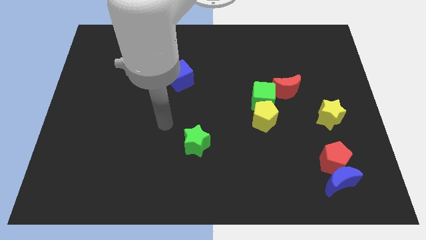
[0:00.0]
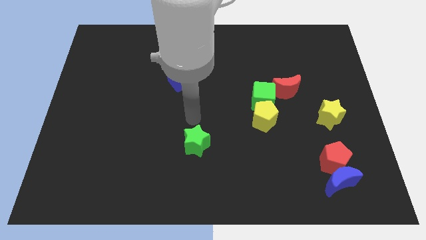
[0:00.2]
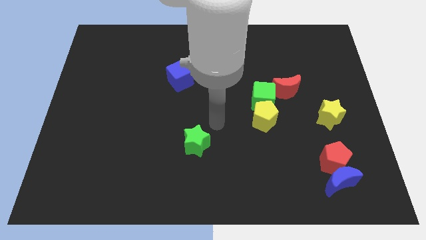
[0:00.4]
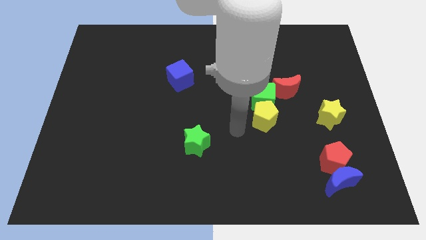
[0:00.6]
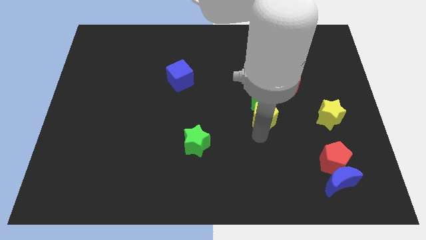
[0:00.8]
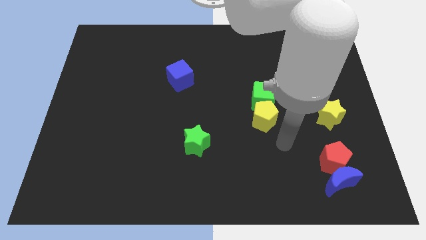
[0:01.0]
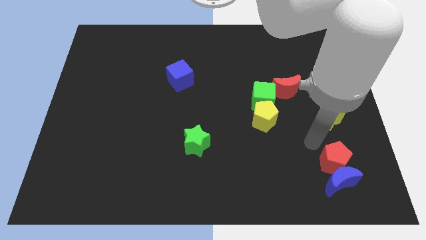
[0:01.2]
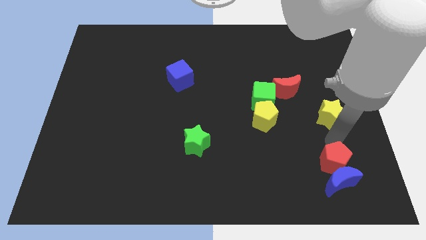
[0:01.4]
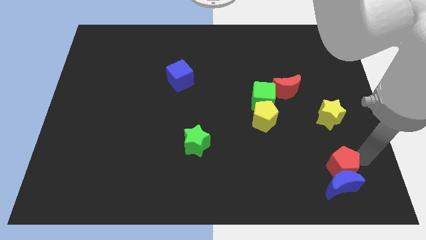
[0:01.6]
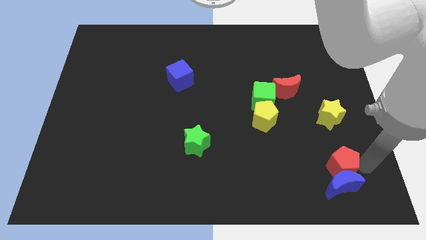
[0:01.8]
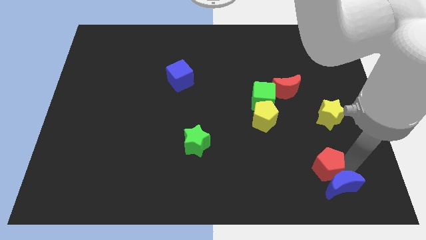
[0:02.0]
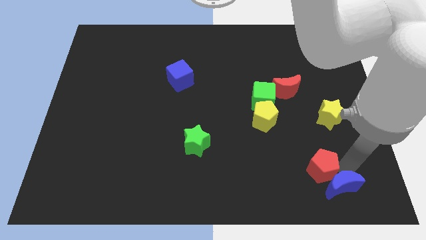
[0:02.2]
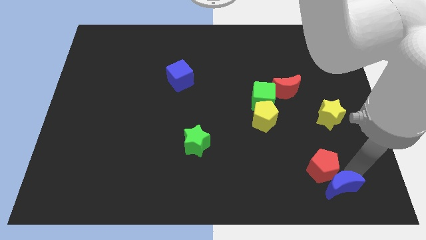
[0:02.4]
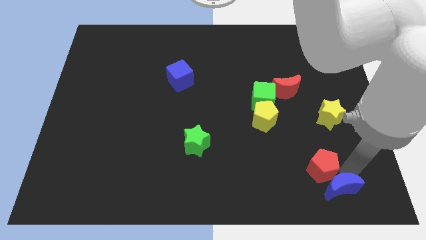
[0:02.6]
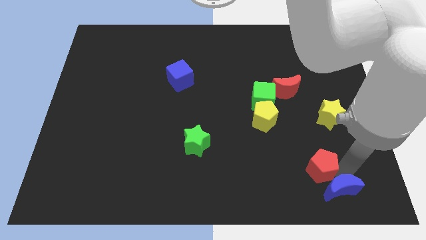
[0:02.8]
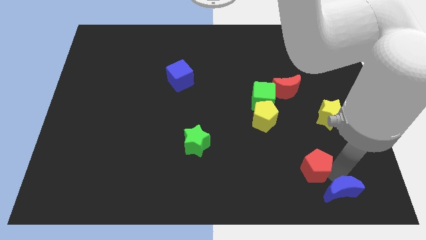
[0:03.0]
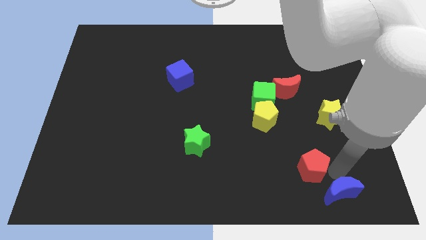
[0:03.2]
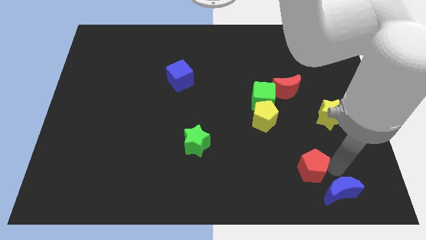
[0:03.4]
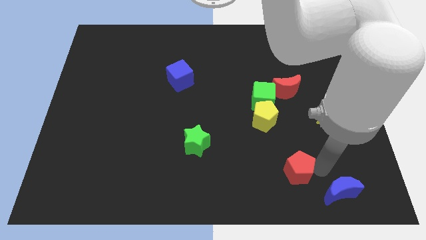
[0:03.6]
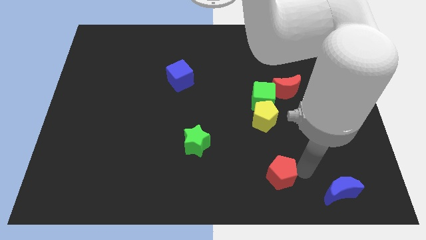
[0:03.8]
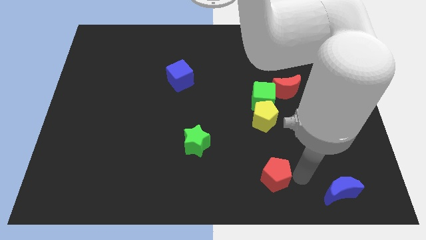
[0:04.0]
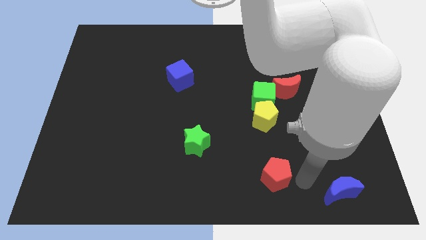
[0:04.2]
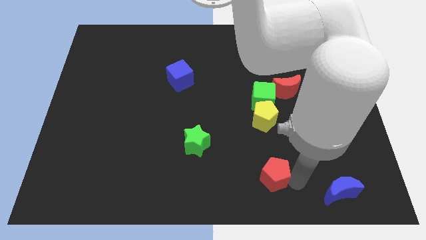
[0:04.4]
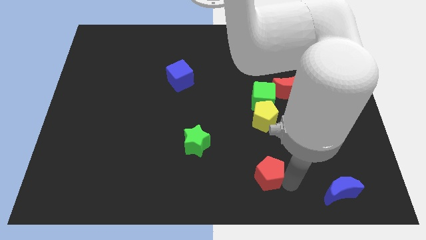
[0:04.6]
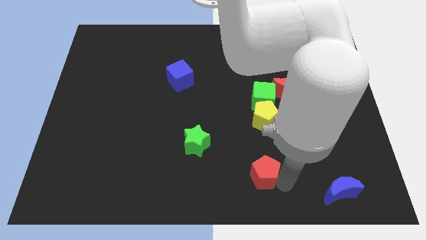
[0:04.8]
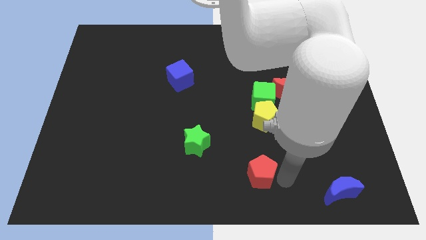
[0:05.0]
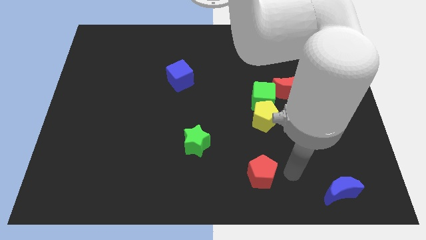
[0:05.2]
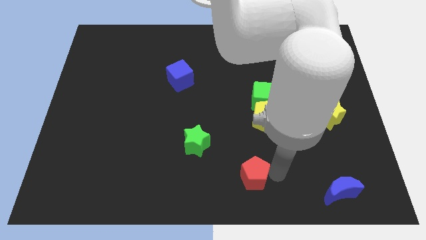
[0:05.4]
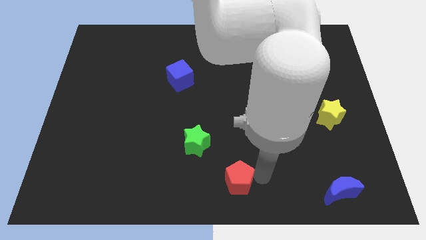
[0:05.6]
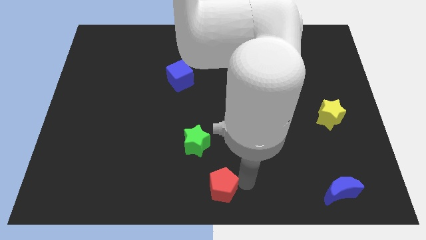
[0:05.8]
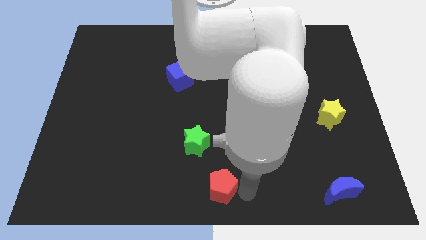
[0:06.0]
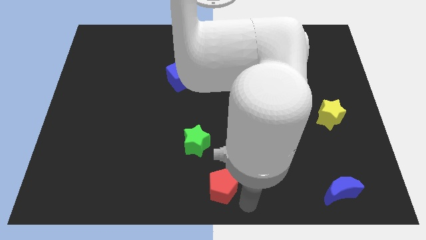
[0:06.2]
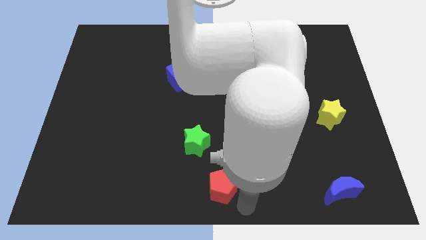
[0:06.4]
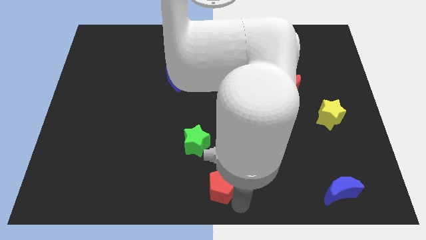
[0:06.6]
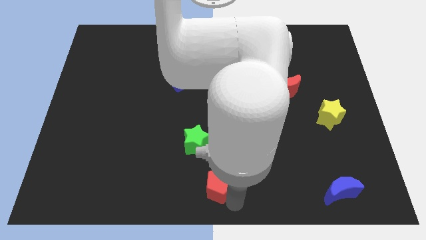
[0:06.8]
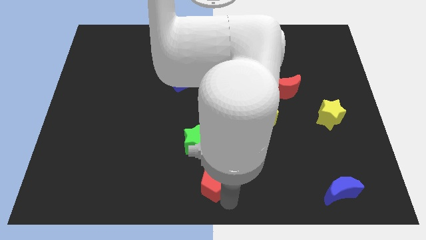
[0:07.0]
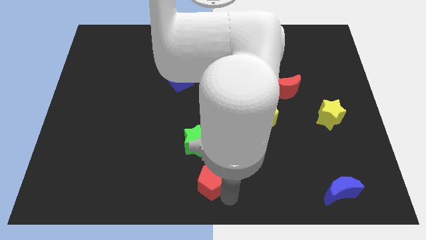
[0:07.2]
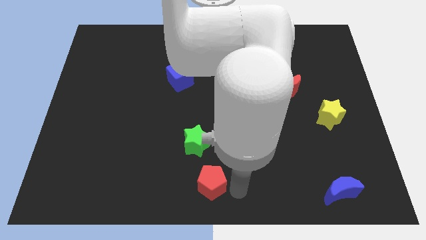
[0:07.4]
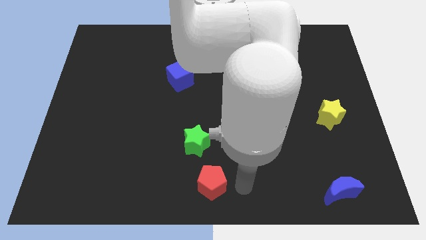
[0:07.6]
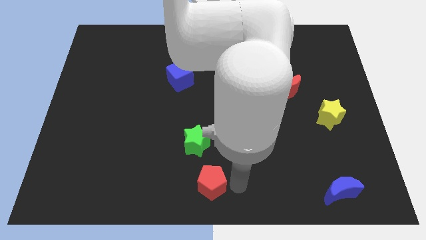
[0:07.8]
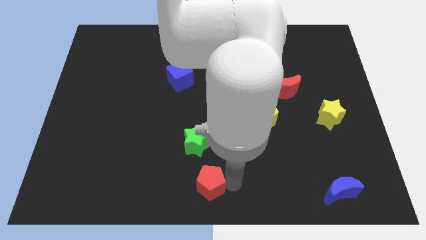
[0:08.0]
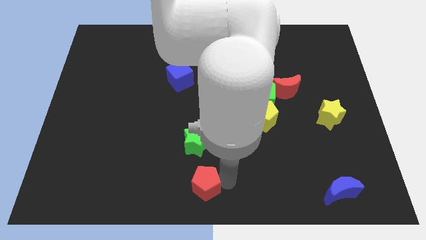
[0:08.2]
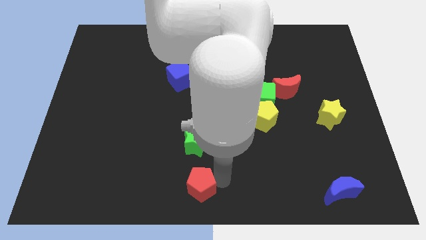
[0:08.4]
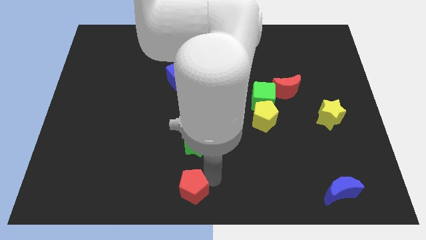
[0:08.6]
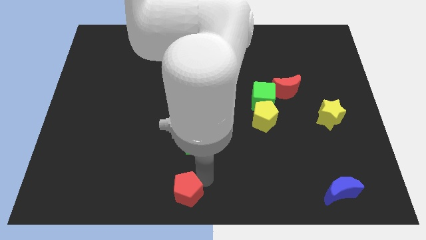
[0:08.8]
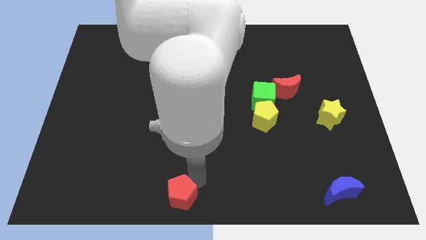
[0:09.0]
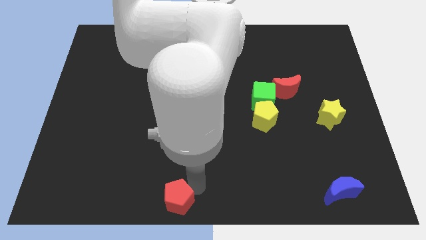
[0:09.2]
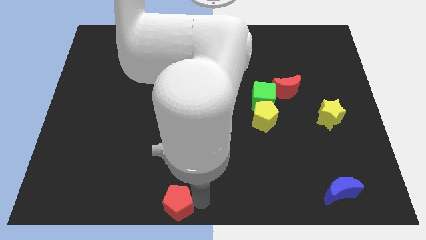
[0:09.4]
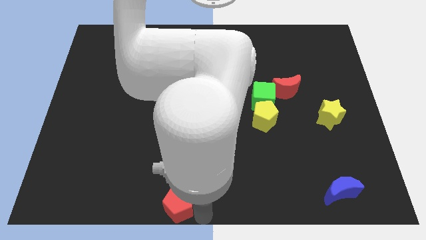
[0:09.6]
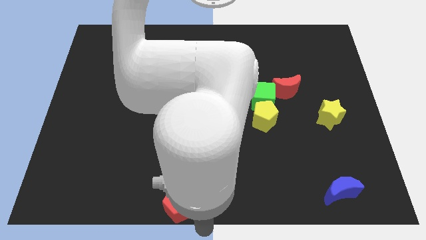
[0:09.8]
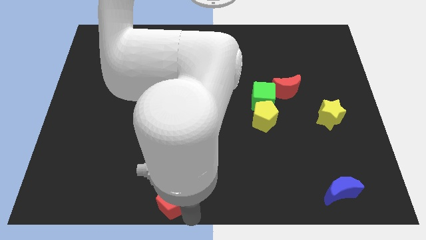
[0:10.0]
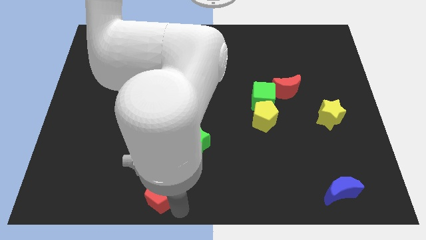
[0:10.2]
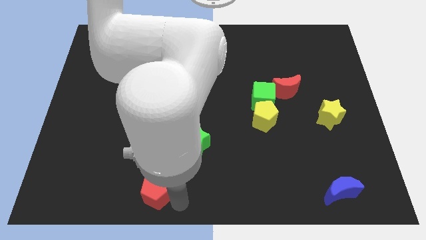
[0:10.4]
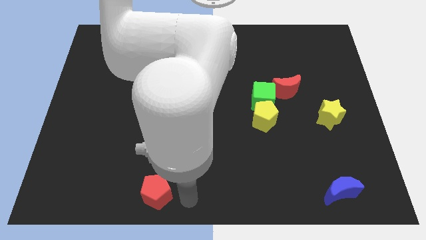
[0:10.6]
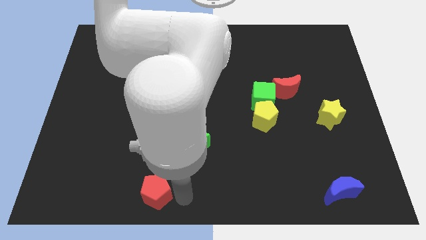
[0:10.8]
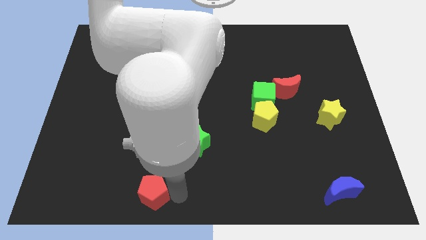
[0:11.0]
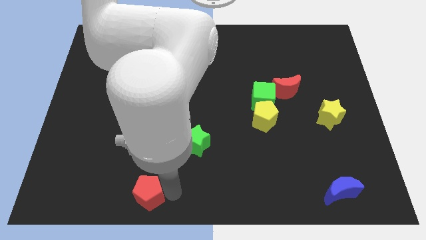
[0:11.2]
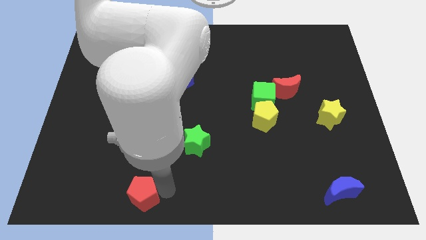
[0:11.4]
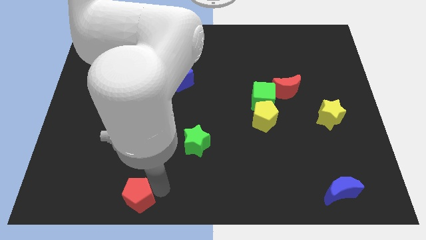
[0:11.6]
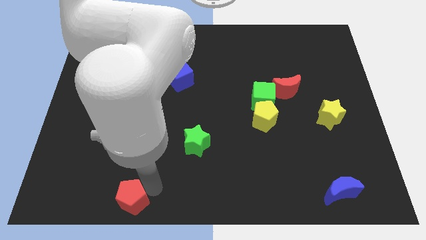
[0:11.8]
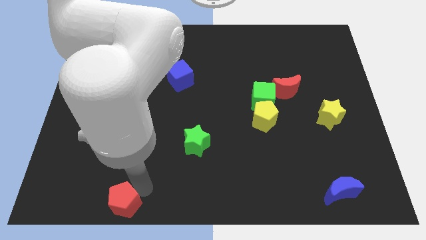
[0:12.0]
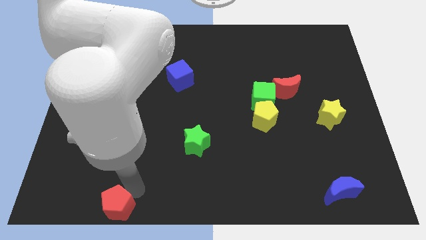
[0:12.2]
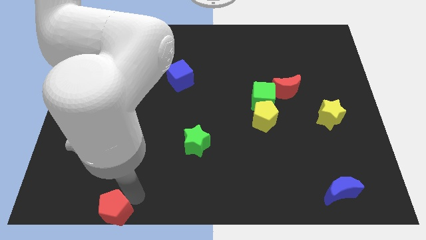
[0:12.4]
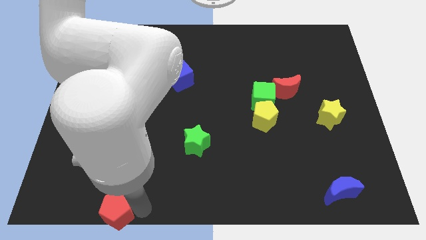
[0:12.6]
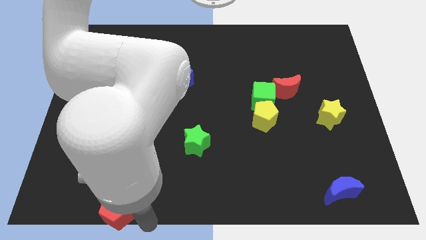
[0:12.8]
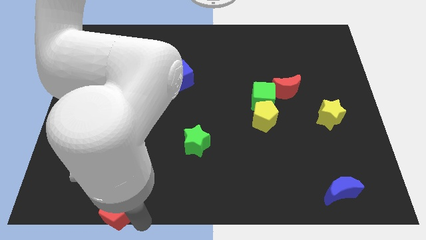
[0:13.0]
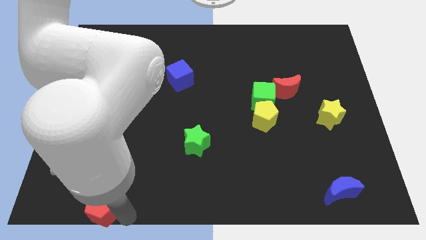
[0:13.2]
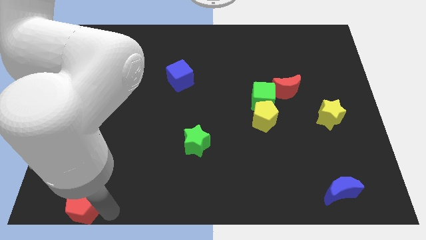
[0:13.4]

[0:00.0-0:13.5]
put the red pentagon to the bottom left of the board
